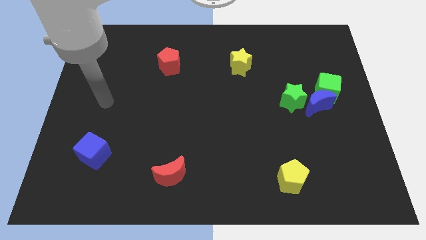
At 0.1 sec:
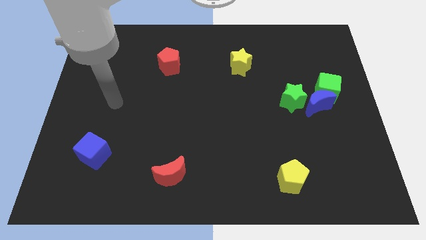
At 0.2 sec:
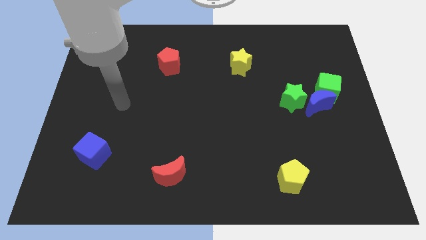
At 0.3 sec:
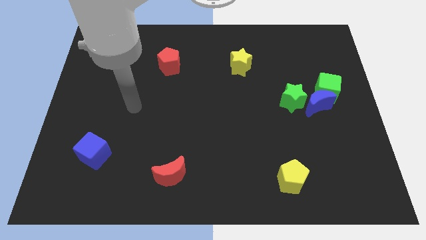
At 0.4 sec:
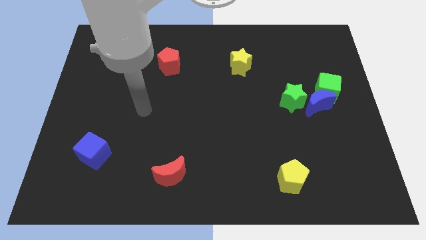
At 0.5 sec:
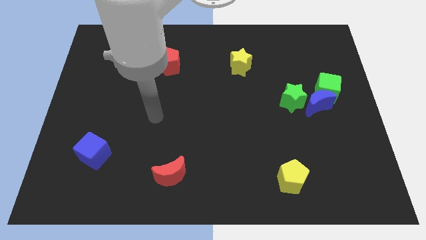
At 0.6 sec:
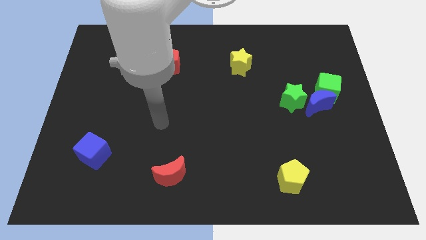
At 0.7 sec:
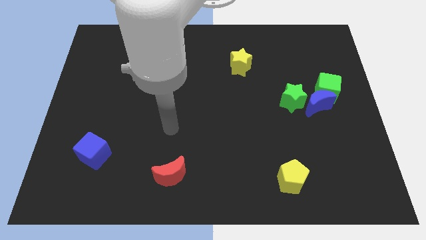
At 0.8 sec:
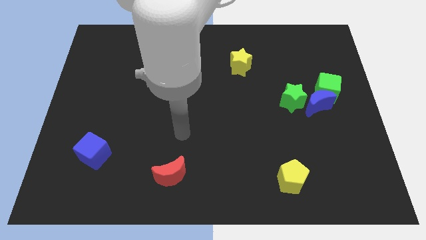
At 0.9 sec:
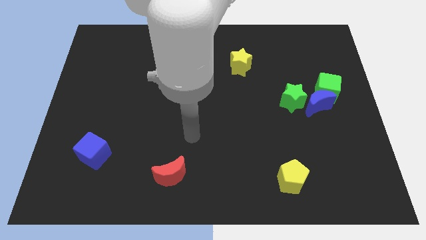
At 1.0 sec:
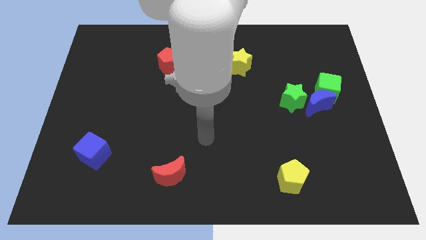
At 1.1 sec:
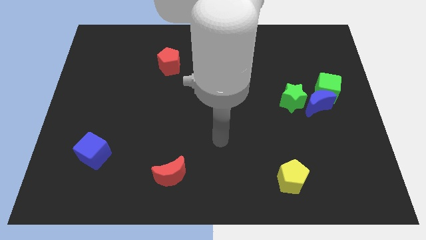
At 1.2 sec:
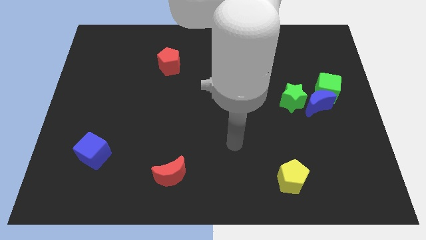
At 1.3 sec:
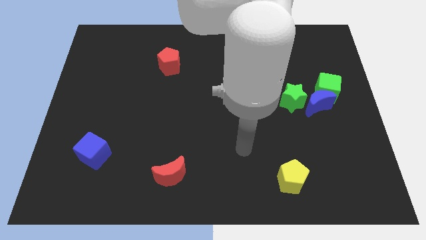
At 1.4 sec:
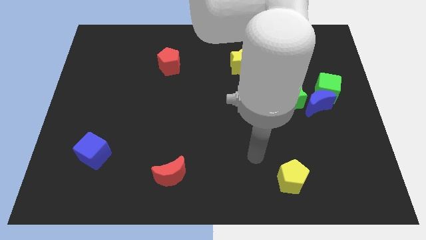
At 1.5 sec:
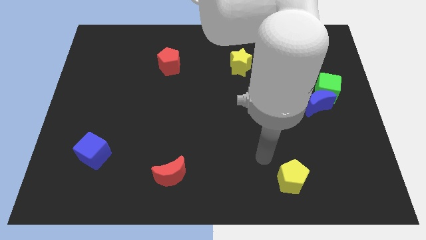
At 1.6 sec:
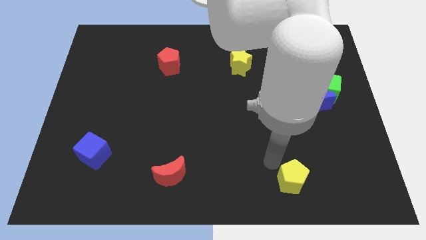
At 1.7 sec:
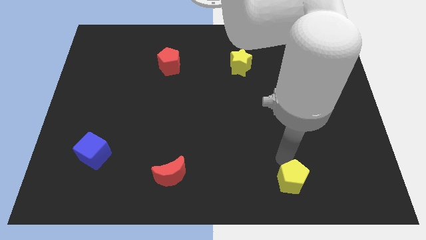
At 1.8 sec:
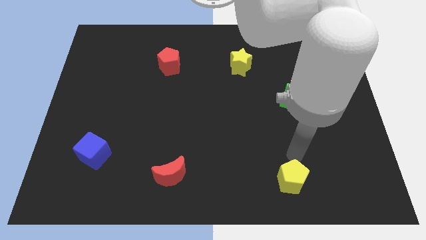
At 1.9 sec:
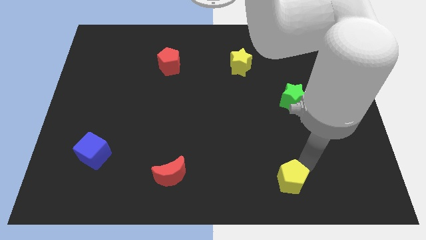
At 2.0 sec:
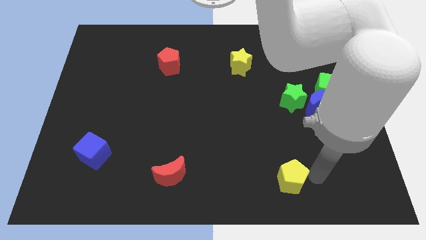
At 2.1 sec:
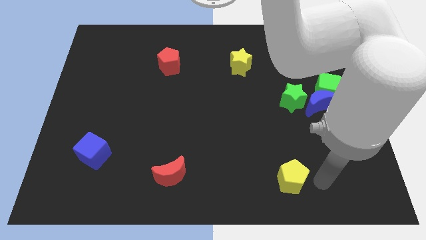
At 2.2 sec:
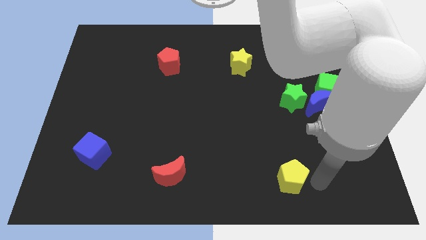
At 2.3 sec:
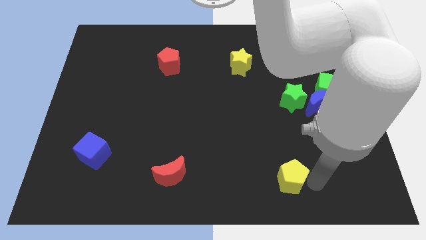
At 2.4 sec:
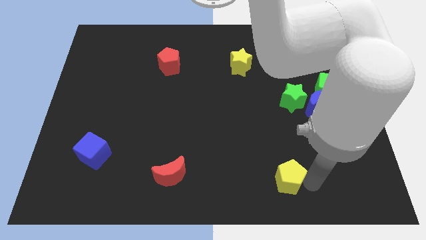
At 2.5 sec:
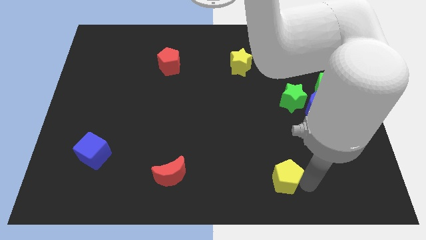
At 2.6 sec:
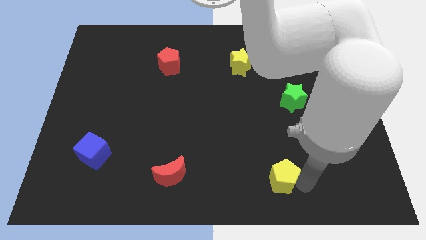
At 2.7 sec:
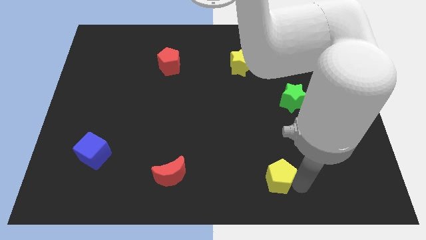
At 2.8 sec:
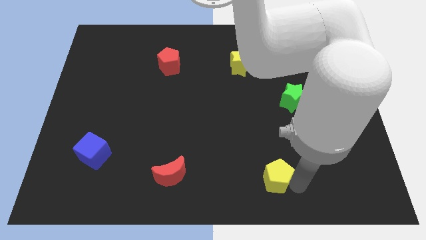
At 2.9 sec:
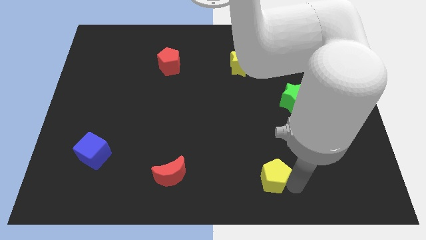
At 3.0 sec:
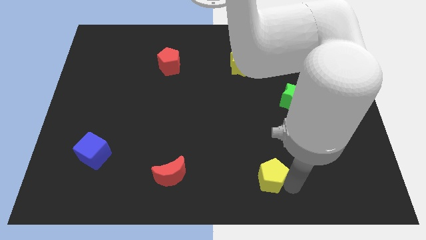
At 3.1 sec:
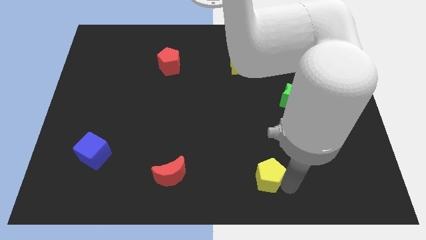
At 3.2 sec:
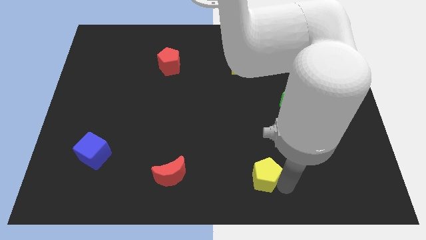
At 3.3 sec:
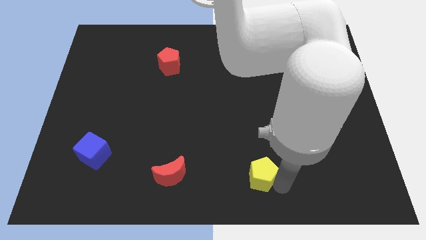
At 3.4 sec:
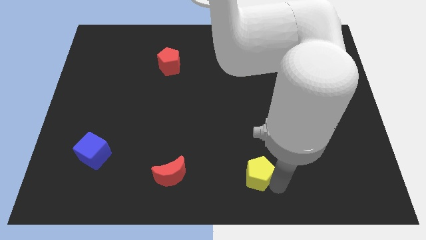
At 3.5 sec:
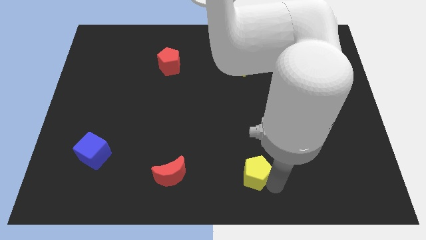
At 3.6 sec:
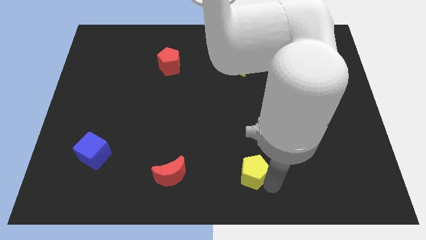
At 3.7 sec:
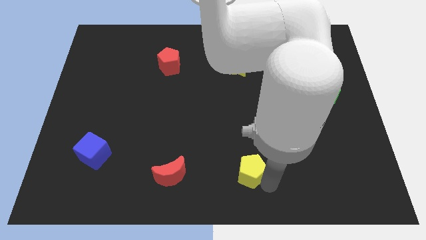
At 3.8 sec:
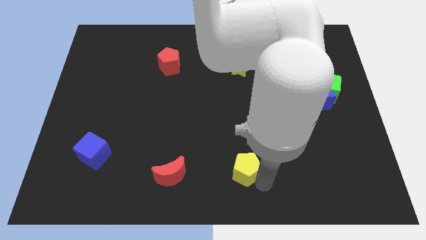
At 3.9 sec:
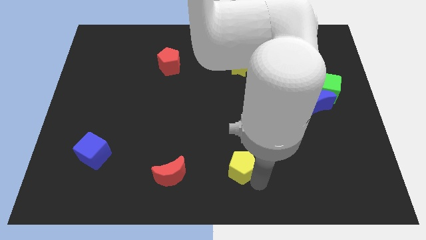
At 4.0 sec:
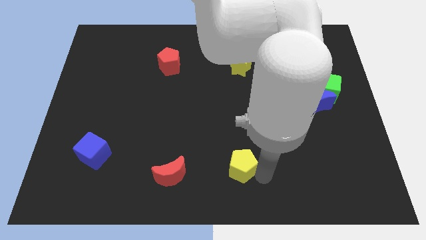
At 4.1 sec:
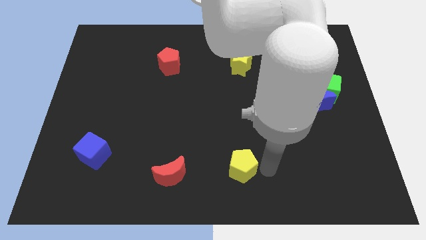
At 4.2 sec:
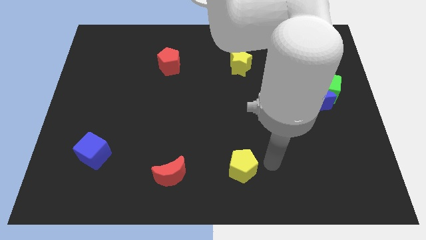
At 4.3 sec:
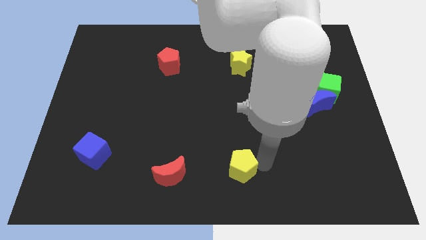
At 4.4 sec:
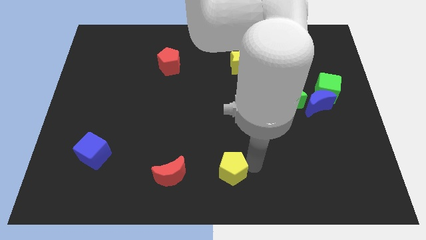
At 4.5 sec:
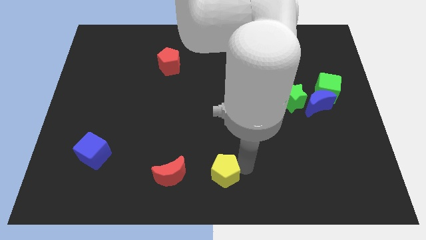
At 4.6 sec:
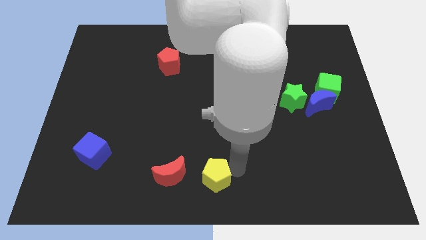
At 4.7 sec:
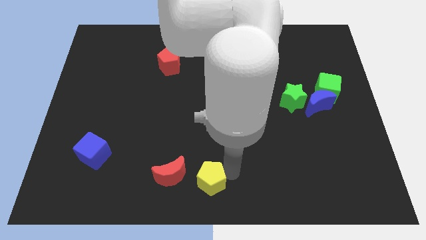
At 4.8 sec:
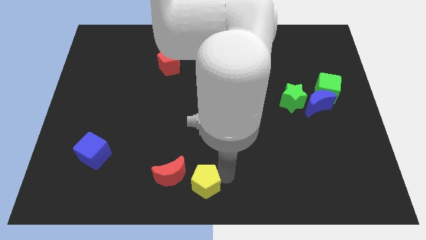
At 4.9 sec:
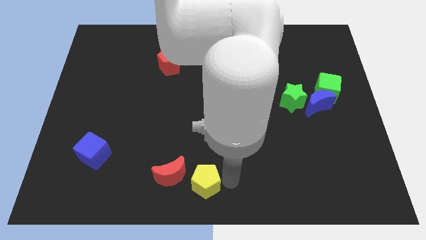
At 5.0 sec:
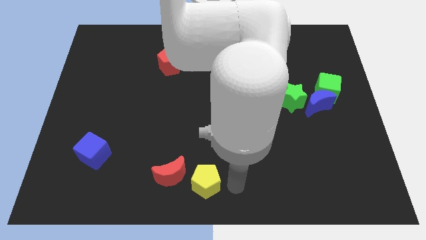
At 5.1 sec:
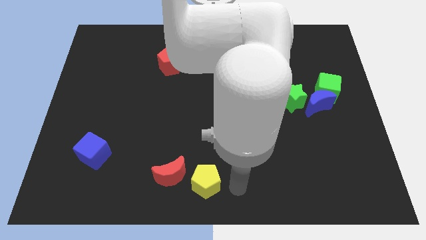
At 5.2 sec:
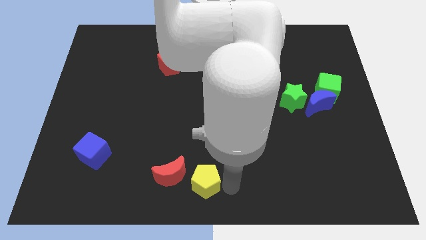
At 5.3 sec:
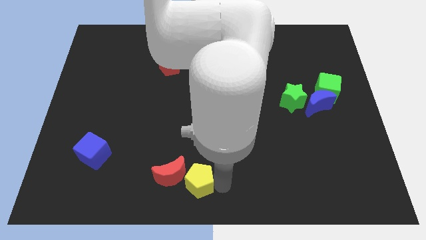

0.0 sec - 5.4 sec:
push the yellow pentagon next to the red moon

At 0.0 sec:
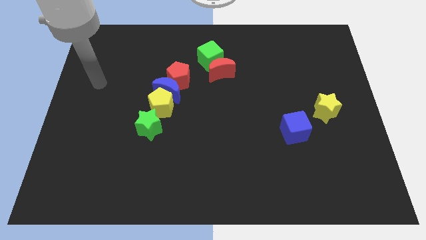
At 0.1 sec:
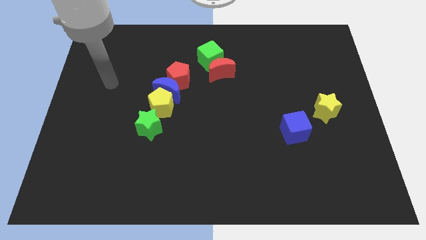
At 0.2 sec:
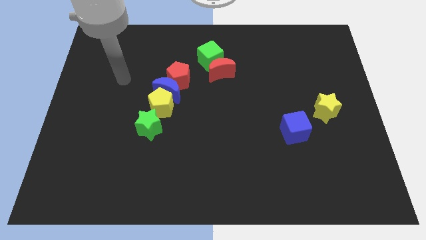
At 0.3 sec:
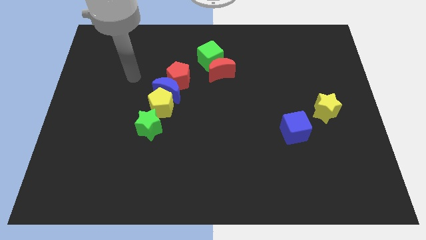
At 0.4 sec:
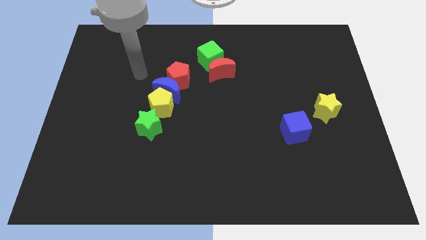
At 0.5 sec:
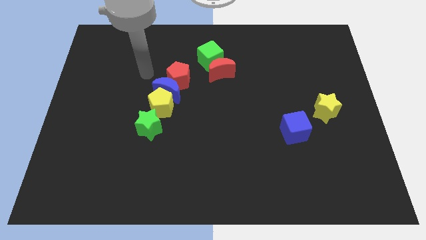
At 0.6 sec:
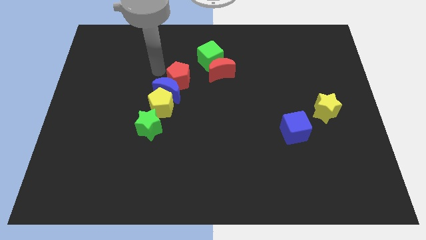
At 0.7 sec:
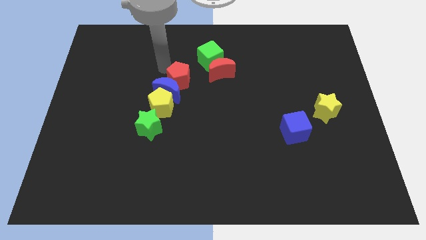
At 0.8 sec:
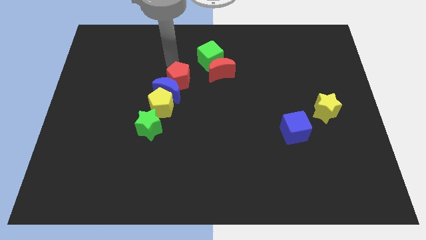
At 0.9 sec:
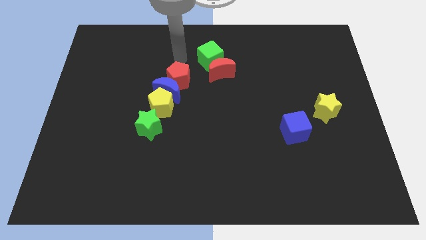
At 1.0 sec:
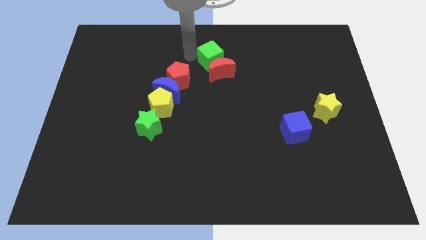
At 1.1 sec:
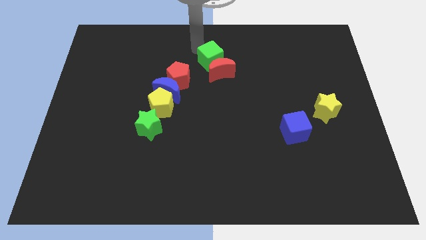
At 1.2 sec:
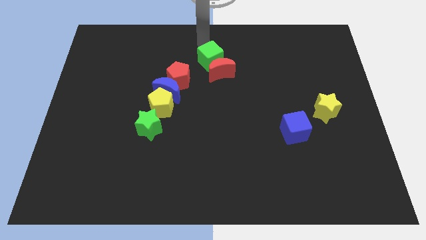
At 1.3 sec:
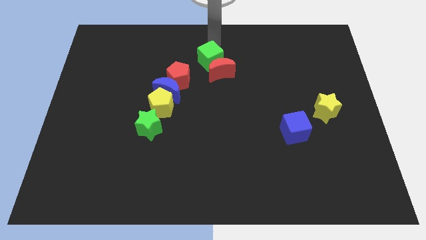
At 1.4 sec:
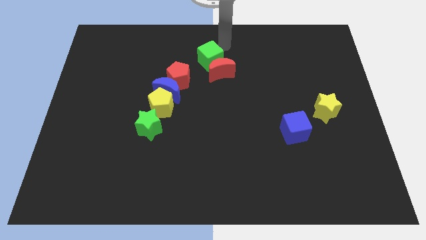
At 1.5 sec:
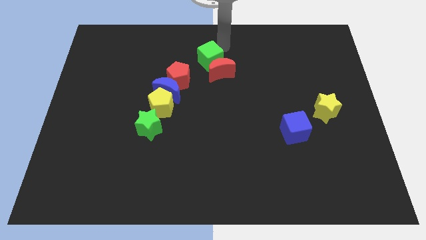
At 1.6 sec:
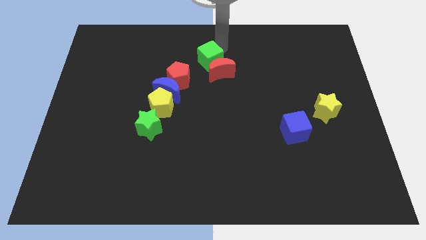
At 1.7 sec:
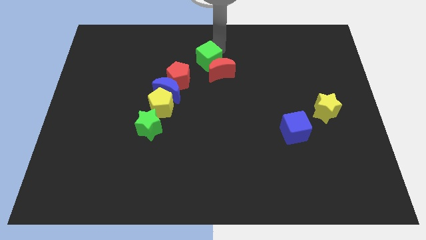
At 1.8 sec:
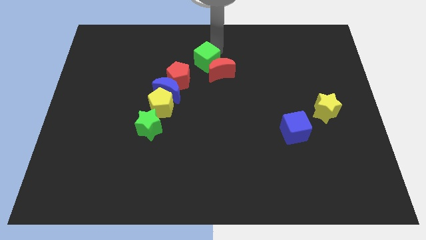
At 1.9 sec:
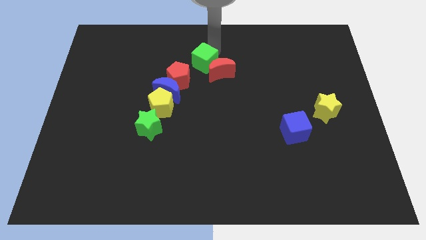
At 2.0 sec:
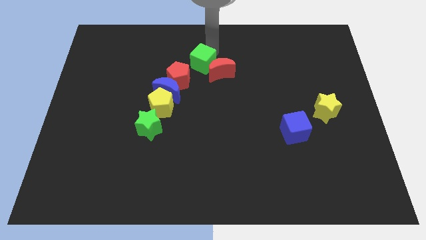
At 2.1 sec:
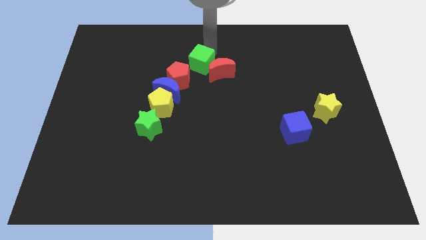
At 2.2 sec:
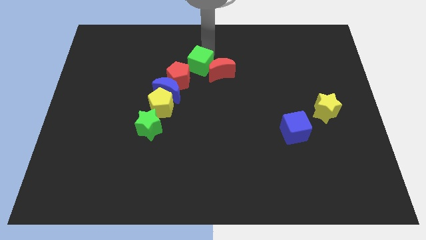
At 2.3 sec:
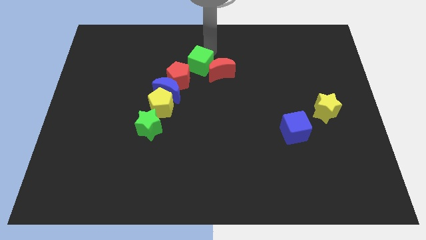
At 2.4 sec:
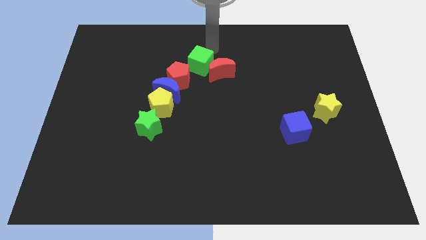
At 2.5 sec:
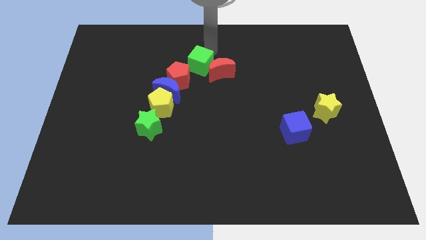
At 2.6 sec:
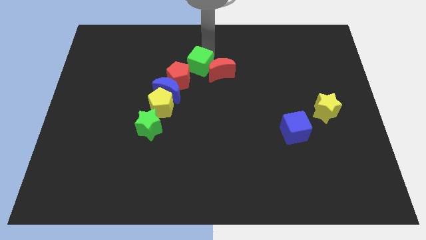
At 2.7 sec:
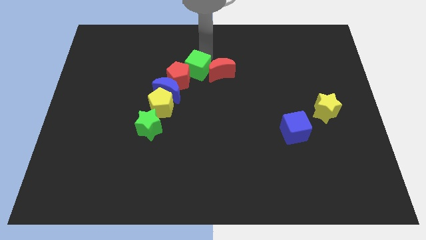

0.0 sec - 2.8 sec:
put the green cube next to the red pentagon
